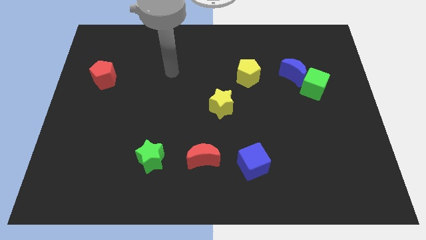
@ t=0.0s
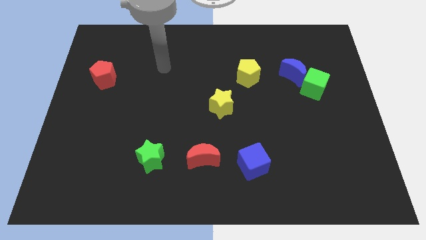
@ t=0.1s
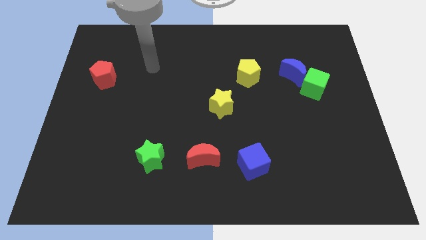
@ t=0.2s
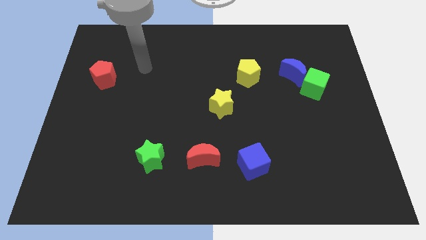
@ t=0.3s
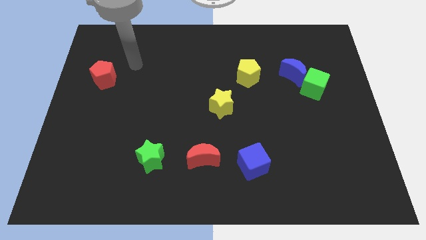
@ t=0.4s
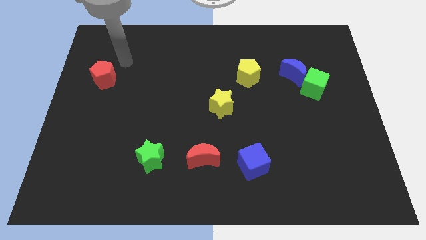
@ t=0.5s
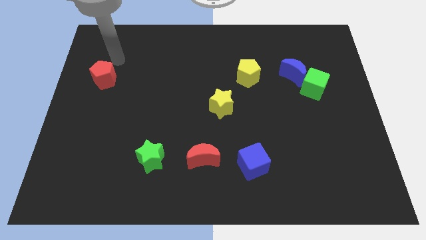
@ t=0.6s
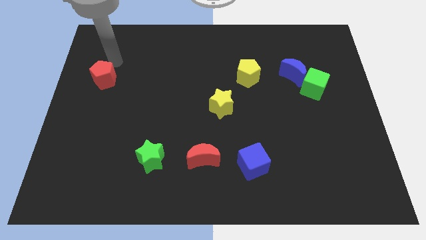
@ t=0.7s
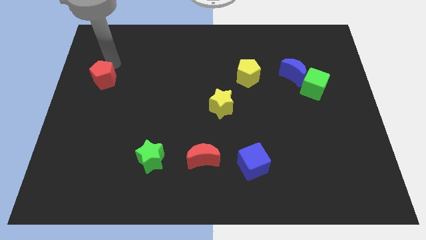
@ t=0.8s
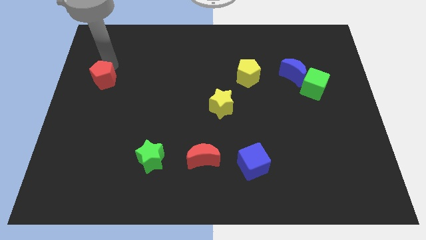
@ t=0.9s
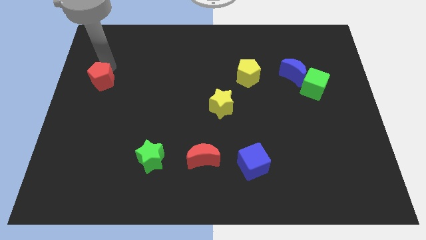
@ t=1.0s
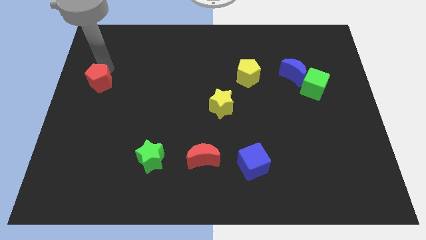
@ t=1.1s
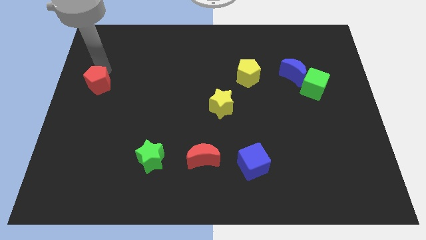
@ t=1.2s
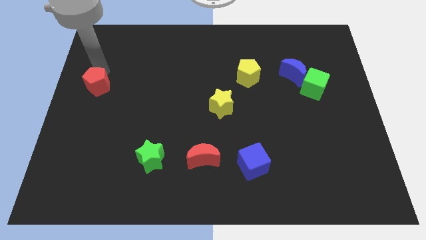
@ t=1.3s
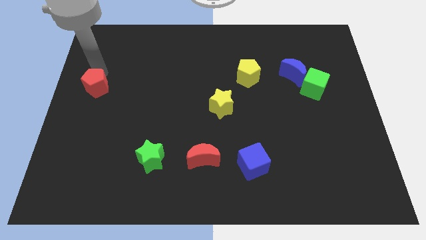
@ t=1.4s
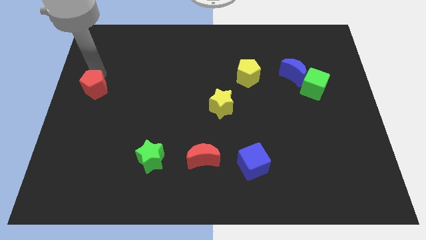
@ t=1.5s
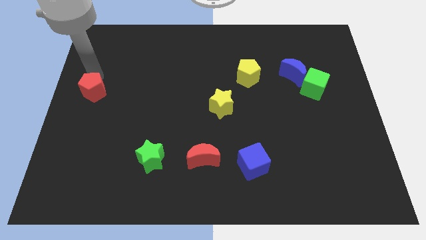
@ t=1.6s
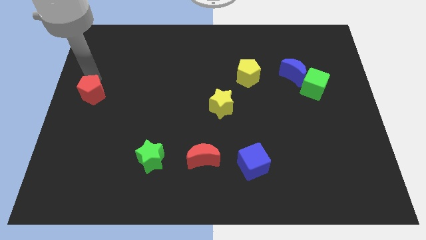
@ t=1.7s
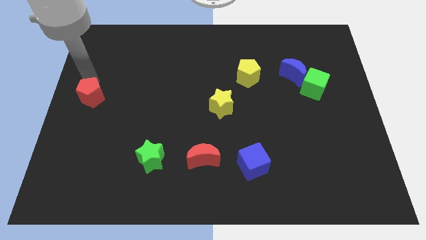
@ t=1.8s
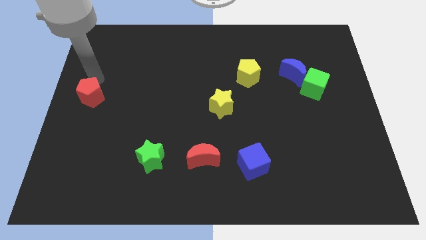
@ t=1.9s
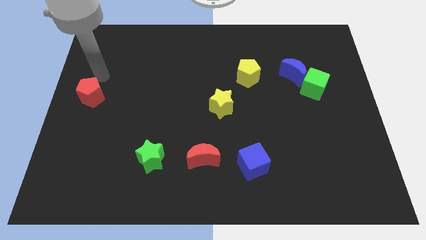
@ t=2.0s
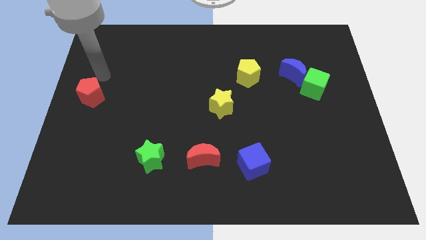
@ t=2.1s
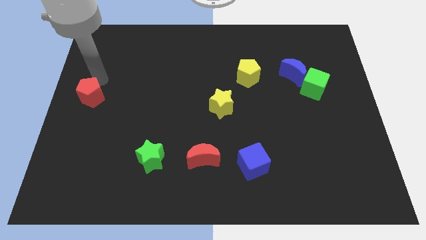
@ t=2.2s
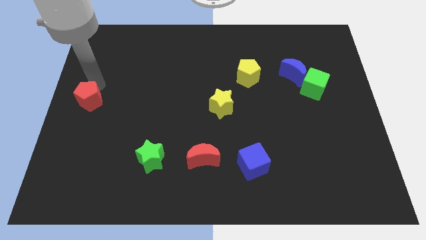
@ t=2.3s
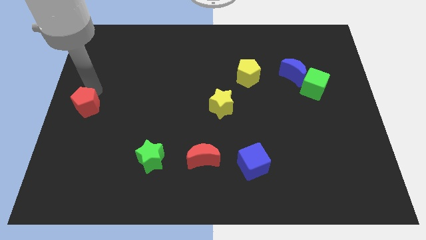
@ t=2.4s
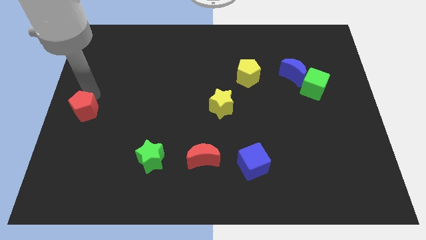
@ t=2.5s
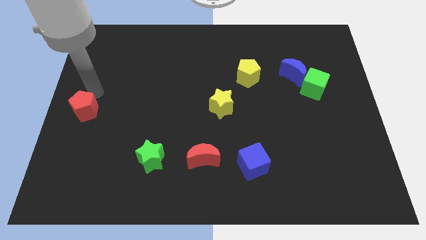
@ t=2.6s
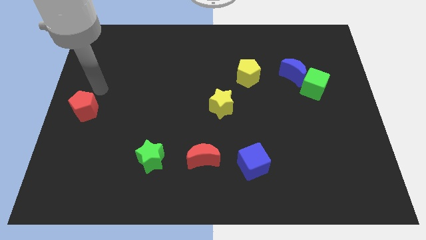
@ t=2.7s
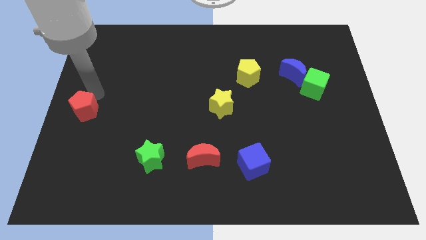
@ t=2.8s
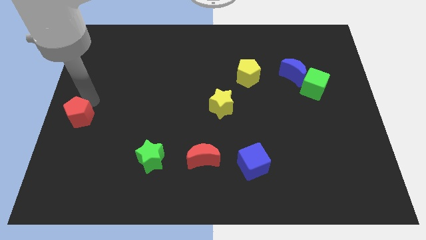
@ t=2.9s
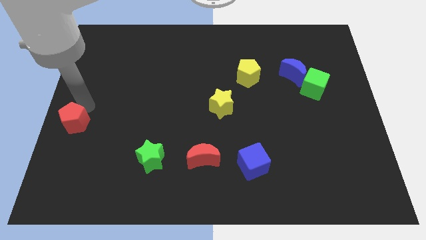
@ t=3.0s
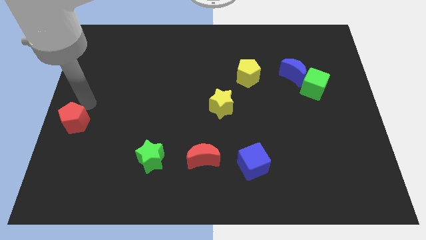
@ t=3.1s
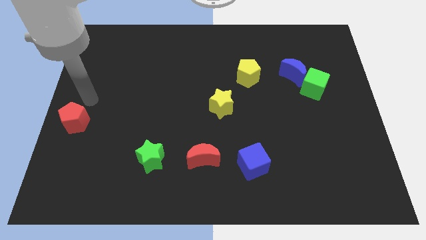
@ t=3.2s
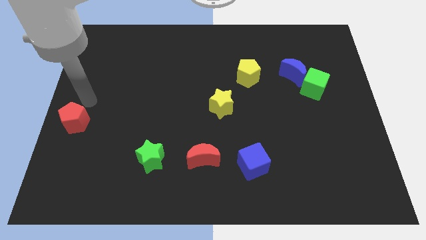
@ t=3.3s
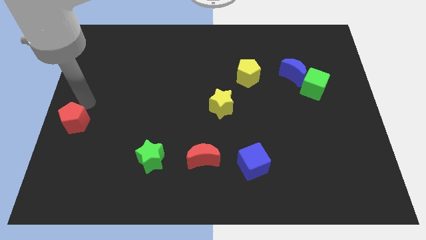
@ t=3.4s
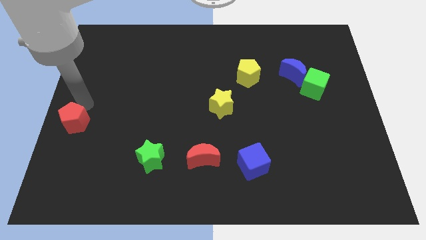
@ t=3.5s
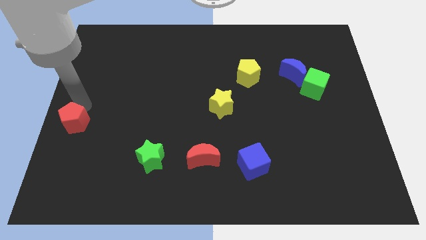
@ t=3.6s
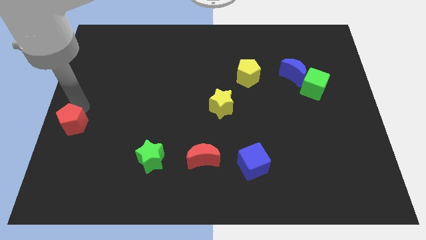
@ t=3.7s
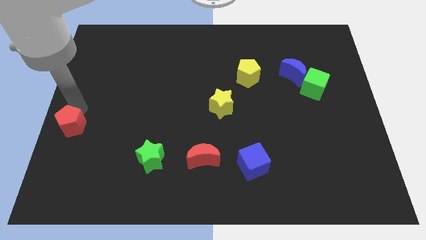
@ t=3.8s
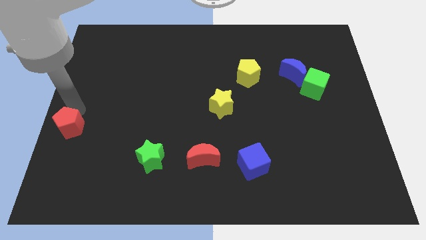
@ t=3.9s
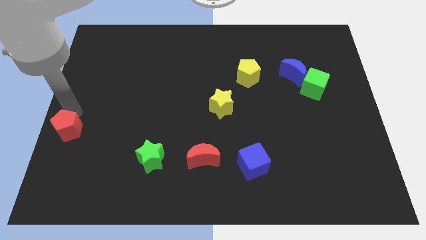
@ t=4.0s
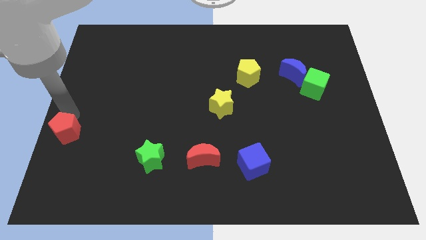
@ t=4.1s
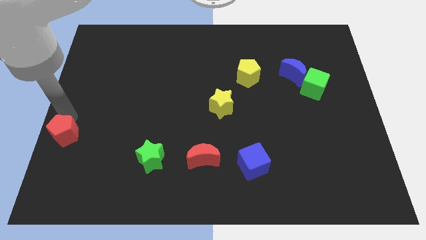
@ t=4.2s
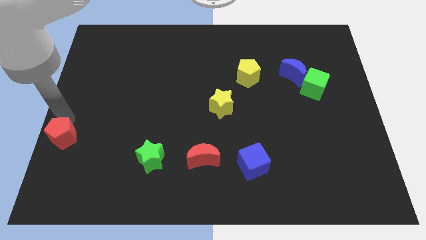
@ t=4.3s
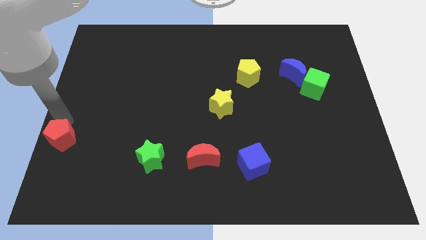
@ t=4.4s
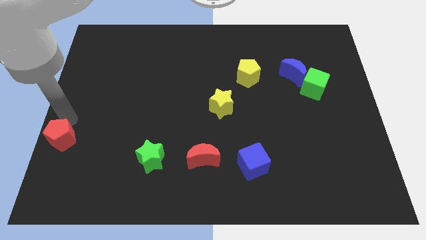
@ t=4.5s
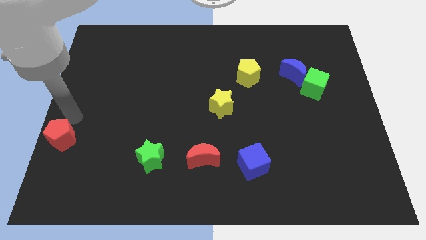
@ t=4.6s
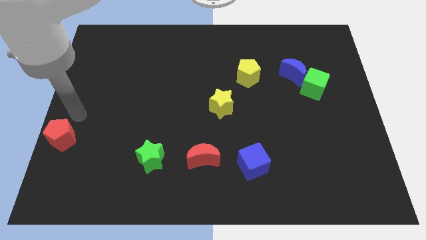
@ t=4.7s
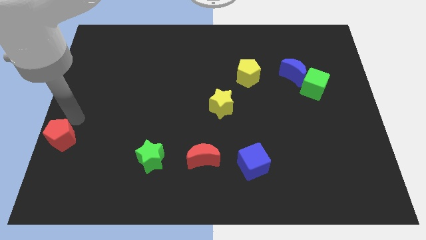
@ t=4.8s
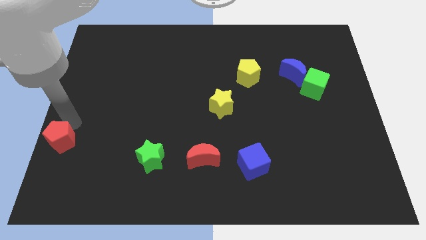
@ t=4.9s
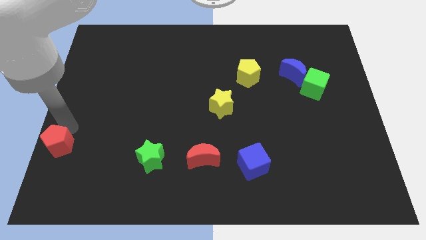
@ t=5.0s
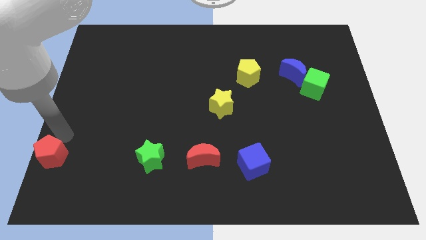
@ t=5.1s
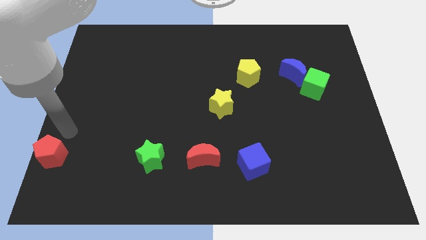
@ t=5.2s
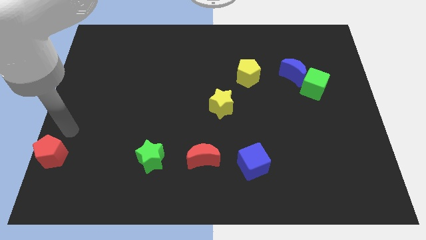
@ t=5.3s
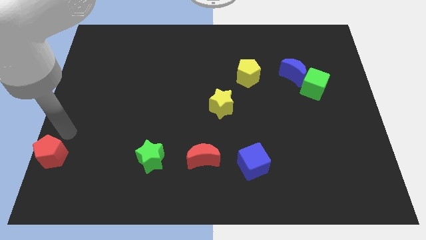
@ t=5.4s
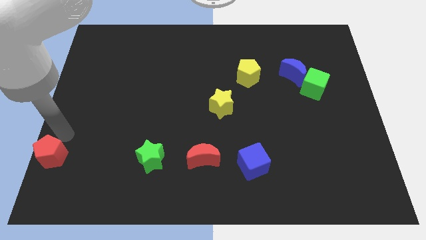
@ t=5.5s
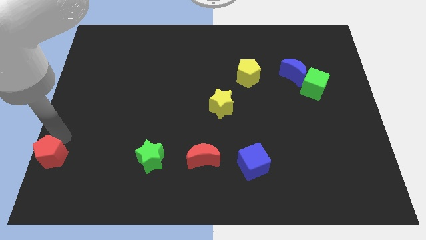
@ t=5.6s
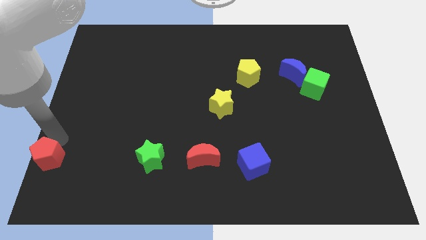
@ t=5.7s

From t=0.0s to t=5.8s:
push the red pentagon to the bottom left corner

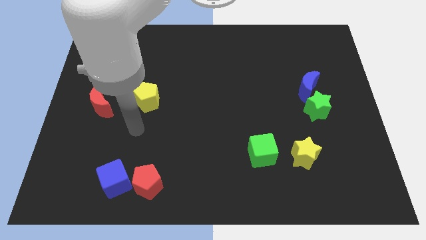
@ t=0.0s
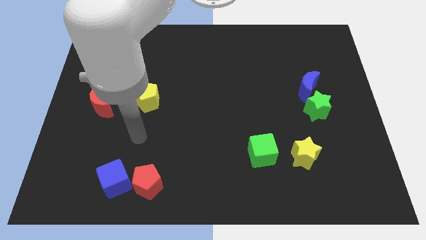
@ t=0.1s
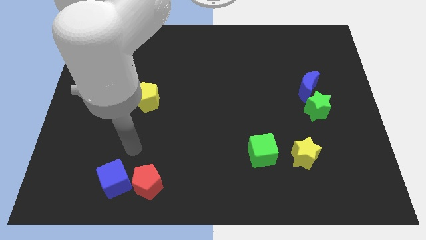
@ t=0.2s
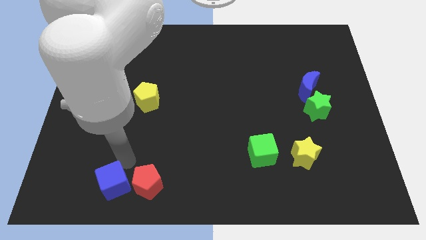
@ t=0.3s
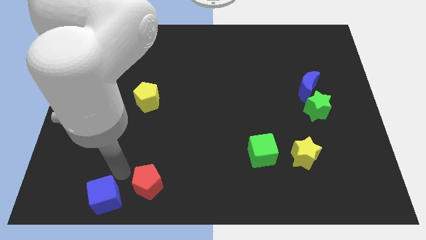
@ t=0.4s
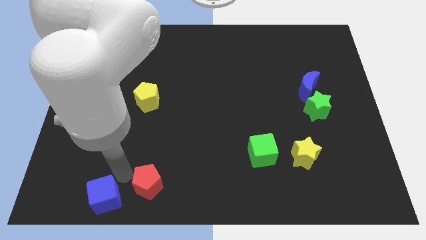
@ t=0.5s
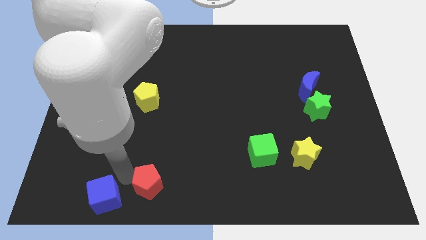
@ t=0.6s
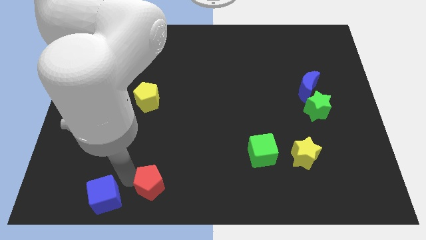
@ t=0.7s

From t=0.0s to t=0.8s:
move the red pentagon to the bottom side

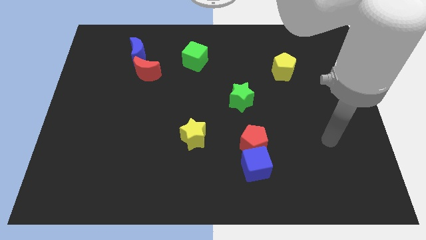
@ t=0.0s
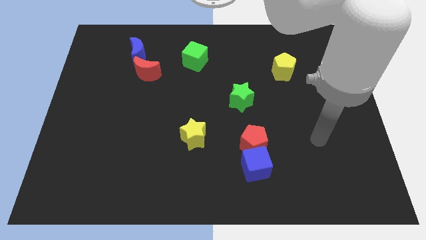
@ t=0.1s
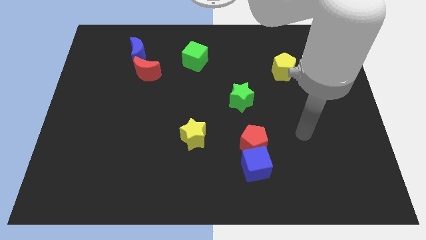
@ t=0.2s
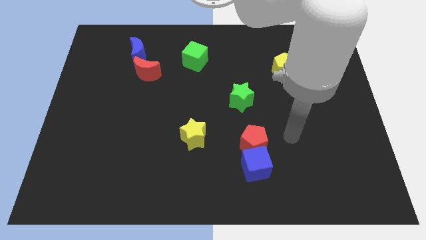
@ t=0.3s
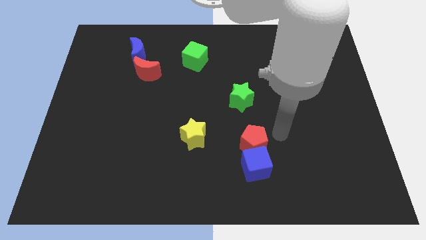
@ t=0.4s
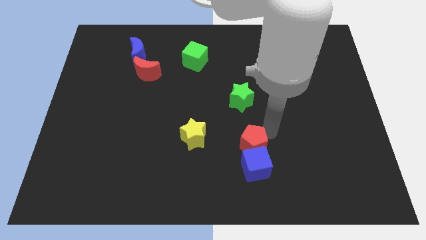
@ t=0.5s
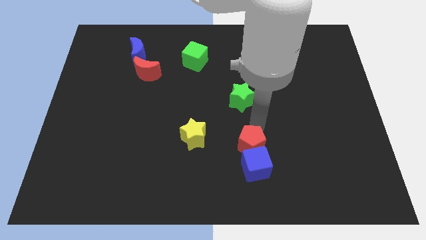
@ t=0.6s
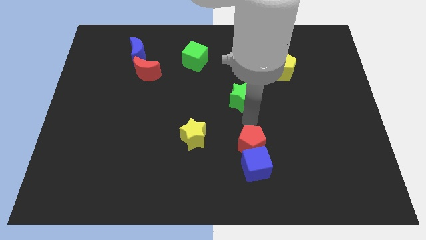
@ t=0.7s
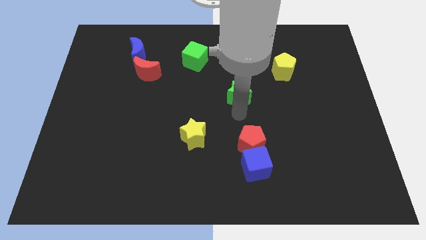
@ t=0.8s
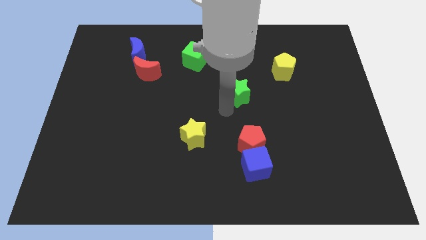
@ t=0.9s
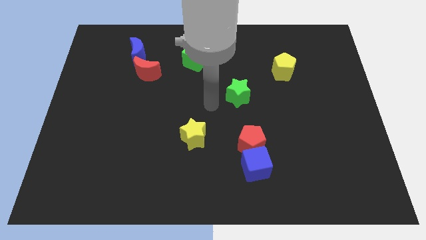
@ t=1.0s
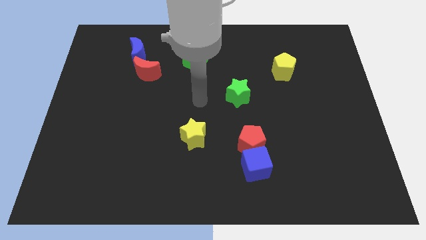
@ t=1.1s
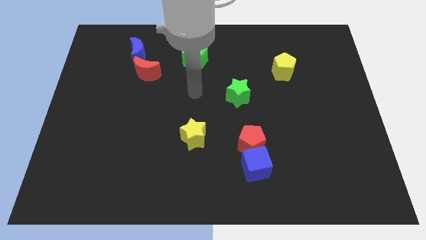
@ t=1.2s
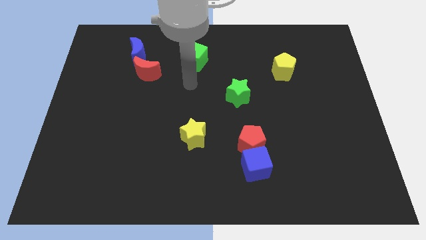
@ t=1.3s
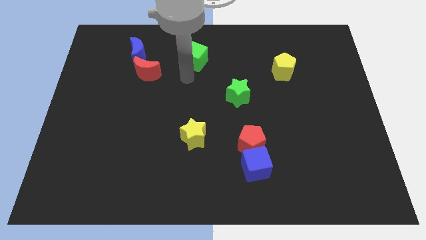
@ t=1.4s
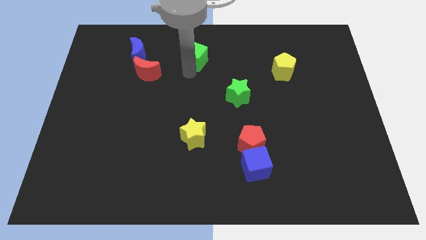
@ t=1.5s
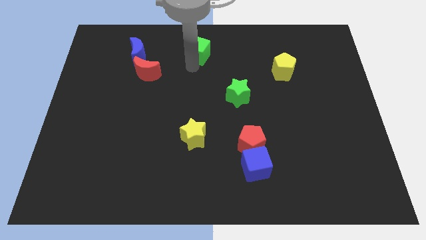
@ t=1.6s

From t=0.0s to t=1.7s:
put the green cube to the towards your base
